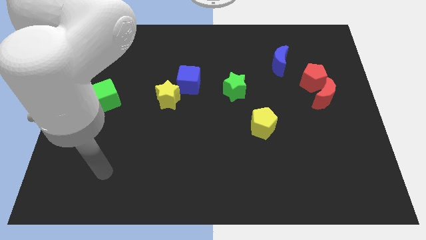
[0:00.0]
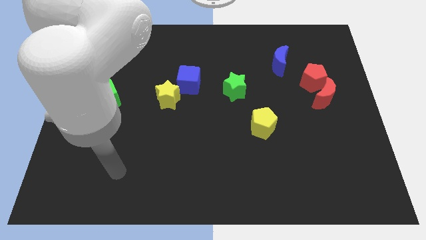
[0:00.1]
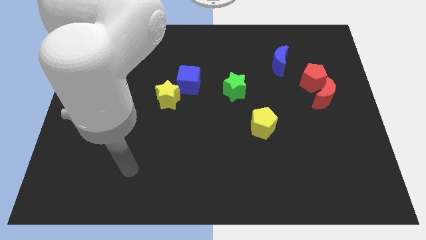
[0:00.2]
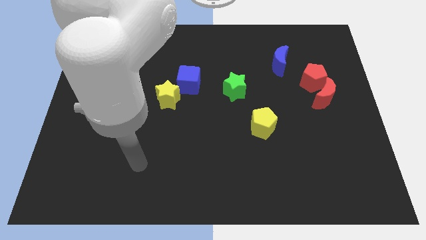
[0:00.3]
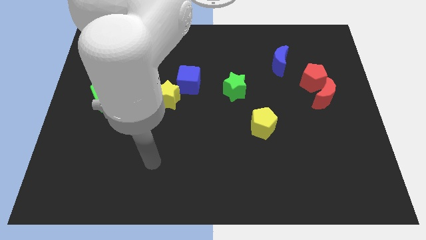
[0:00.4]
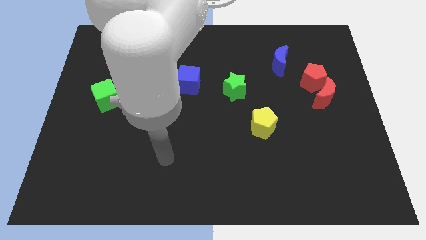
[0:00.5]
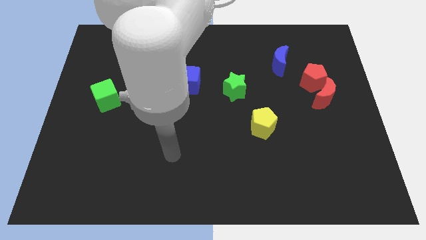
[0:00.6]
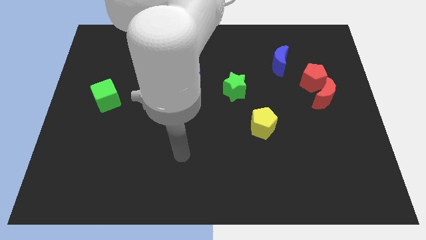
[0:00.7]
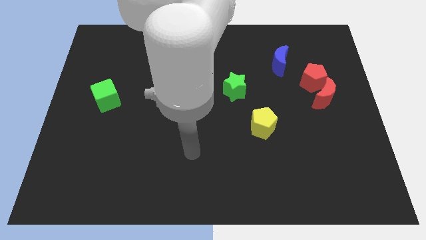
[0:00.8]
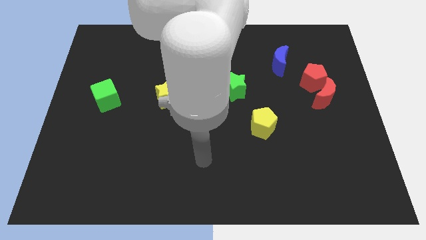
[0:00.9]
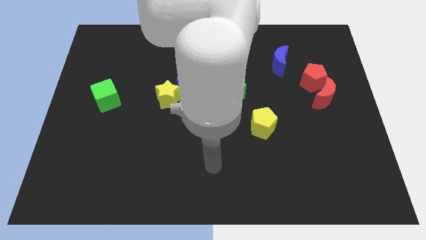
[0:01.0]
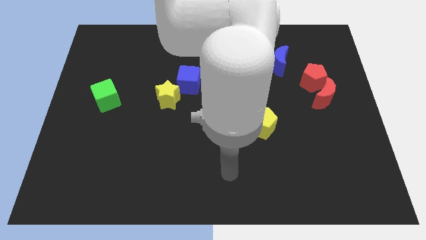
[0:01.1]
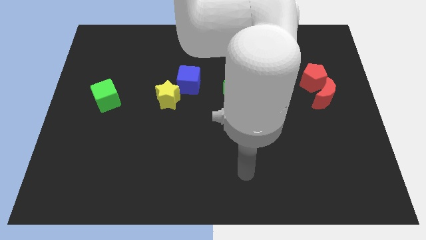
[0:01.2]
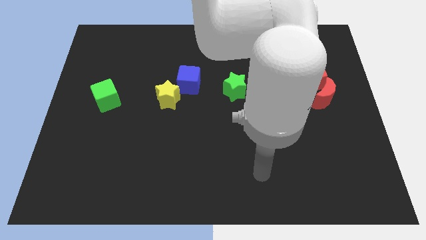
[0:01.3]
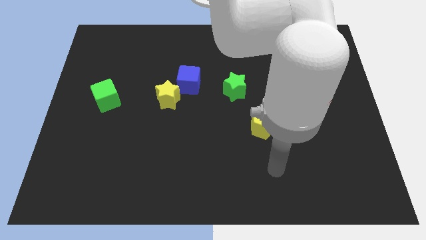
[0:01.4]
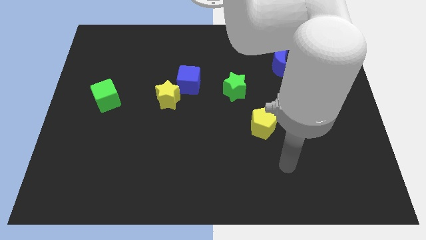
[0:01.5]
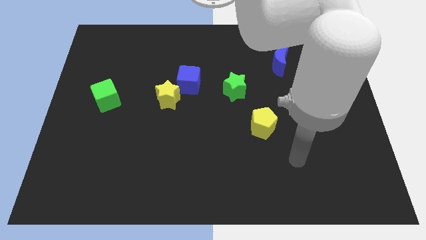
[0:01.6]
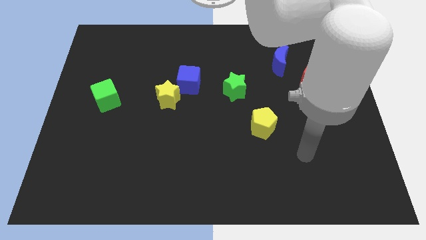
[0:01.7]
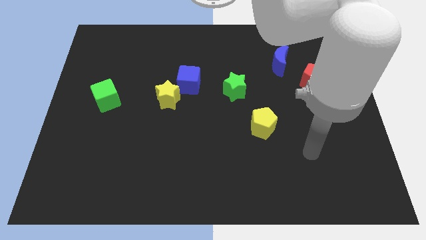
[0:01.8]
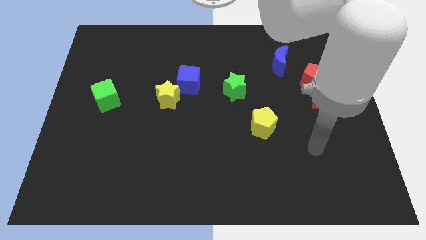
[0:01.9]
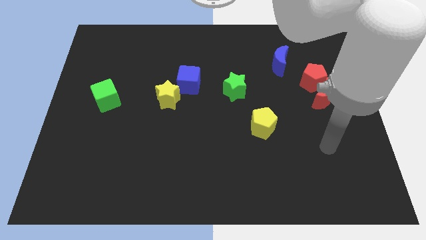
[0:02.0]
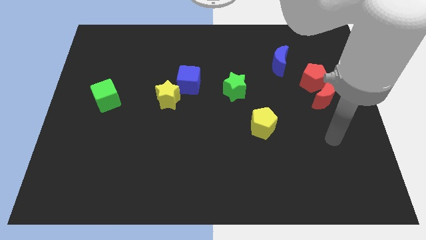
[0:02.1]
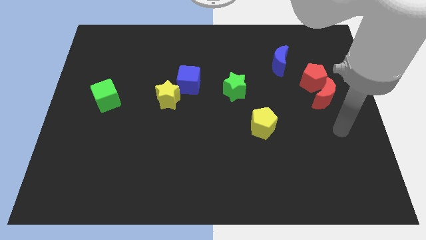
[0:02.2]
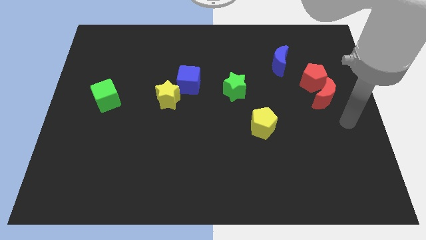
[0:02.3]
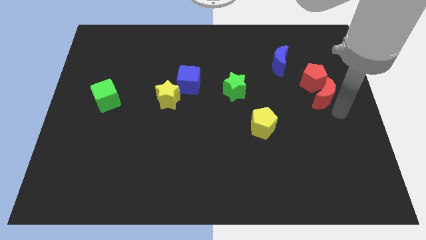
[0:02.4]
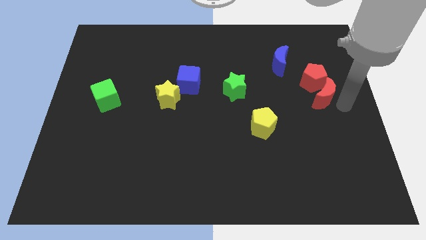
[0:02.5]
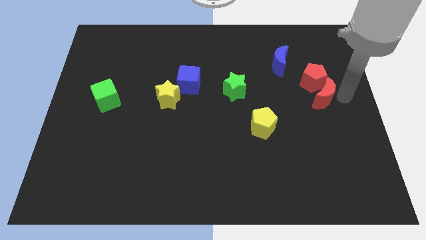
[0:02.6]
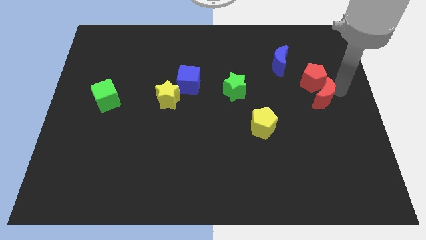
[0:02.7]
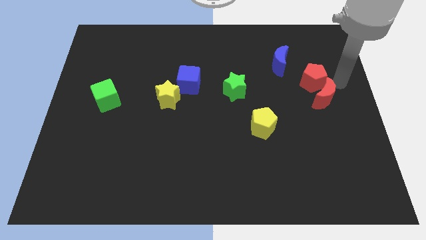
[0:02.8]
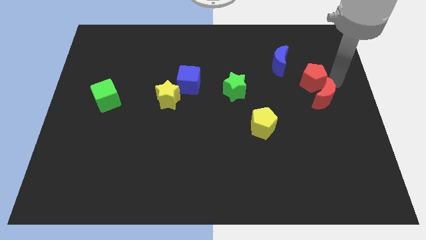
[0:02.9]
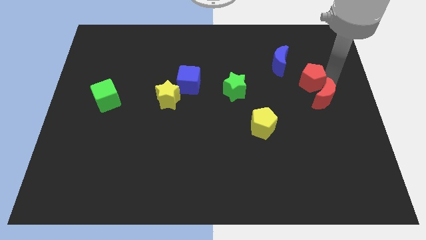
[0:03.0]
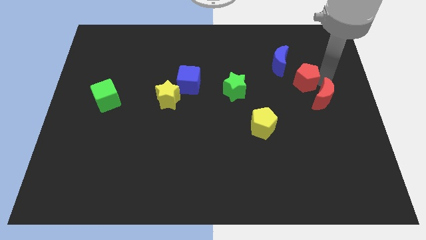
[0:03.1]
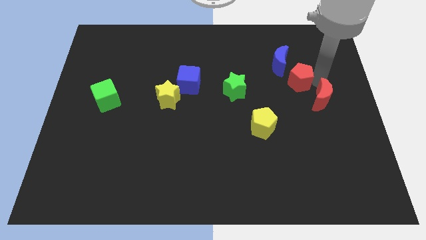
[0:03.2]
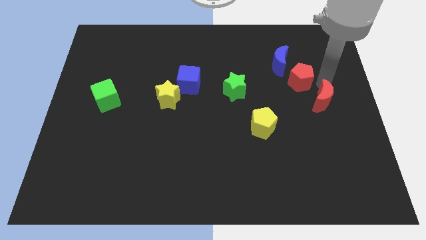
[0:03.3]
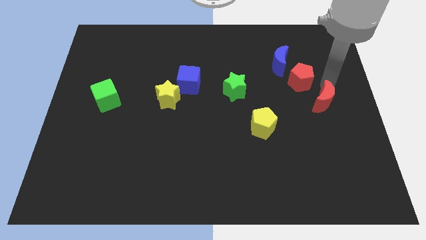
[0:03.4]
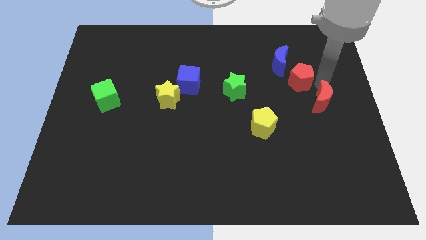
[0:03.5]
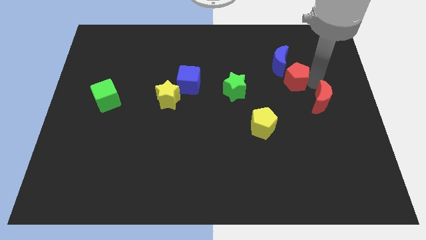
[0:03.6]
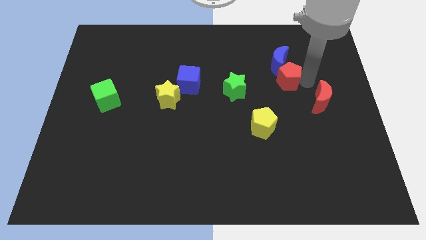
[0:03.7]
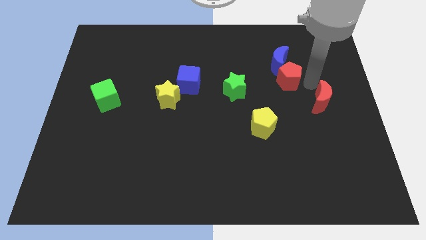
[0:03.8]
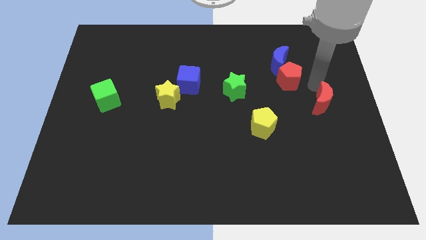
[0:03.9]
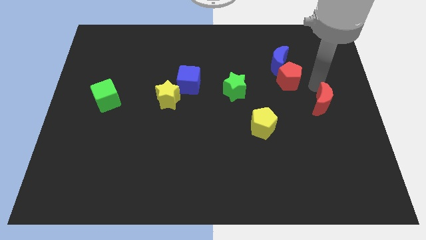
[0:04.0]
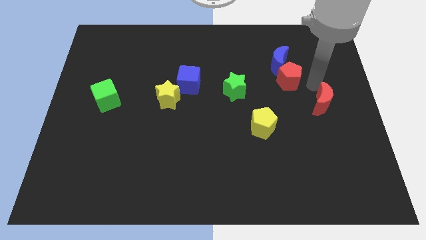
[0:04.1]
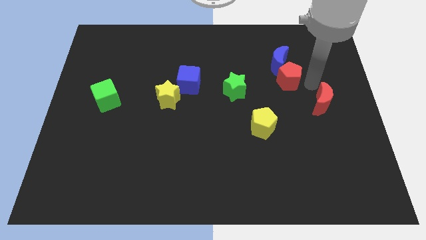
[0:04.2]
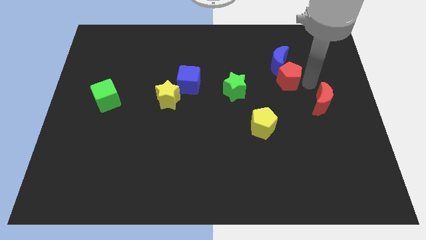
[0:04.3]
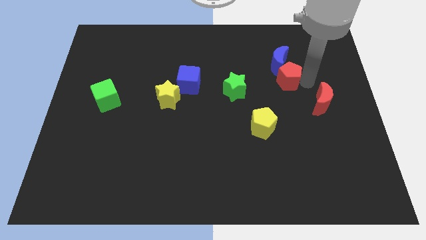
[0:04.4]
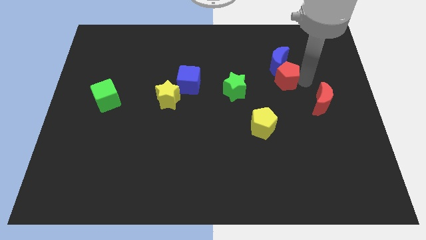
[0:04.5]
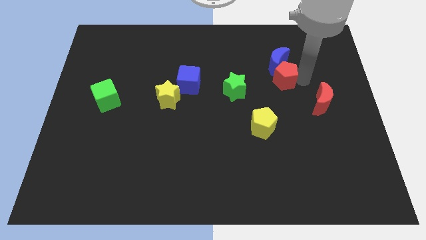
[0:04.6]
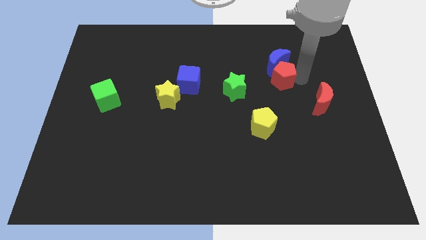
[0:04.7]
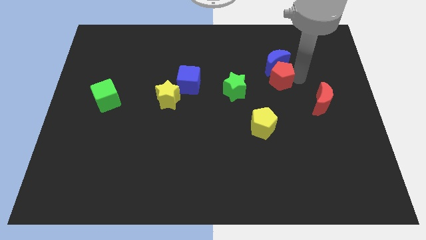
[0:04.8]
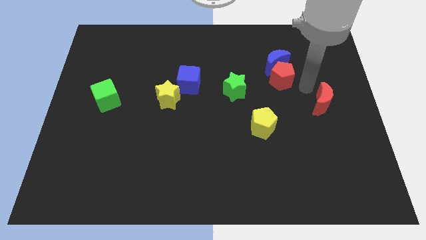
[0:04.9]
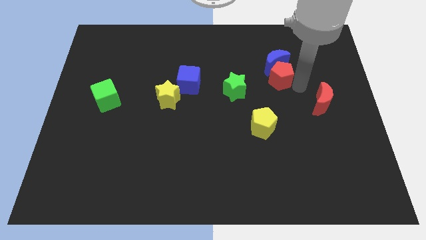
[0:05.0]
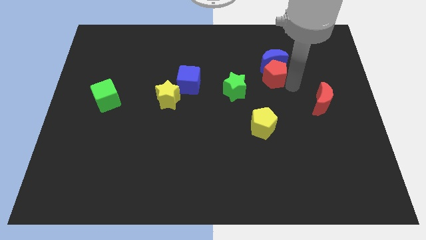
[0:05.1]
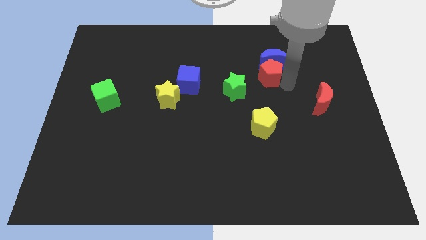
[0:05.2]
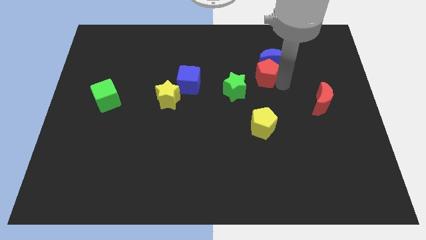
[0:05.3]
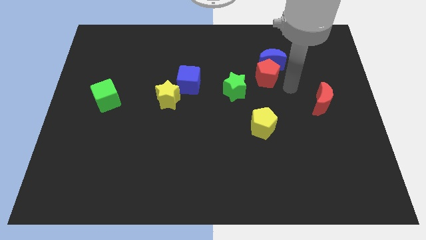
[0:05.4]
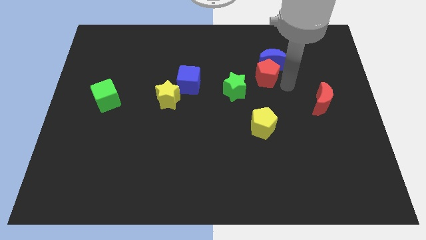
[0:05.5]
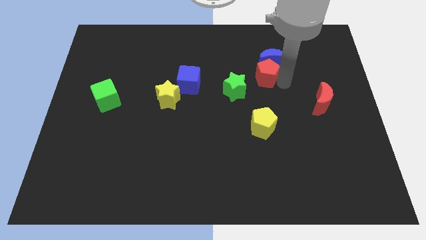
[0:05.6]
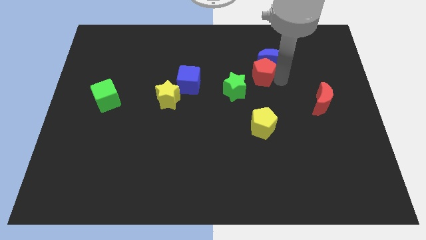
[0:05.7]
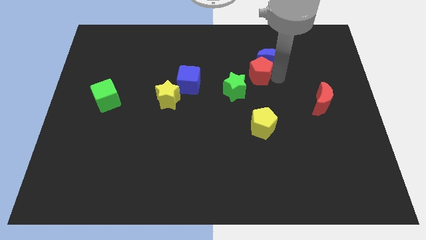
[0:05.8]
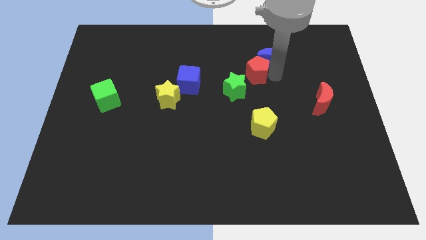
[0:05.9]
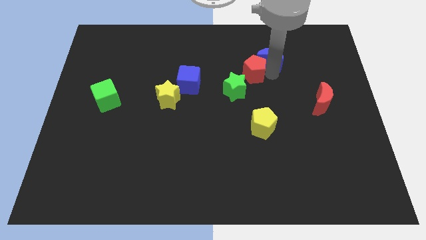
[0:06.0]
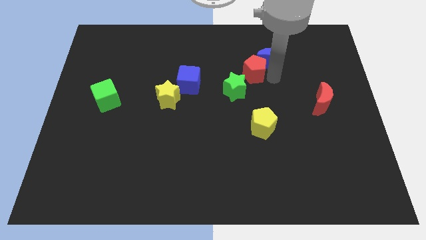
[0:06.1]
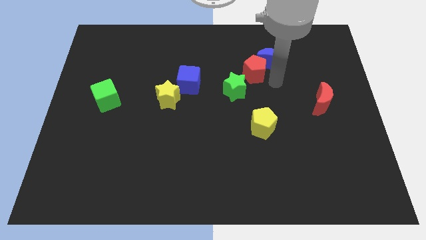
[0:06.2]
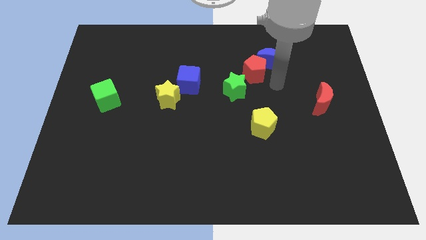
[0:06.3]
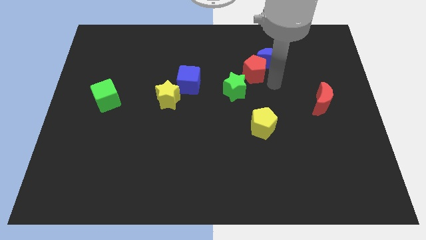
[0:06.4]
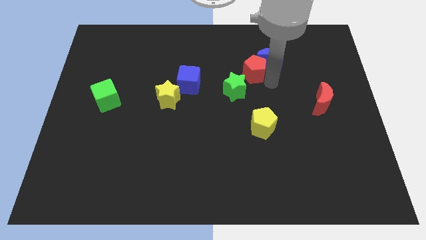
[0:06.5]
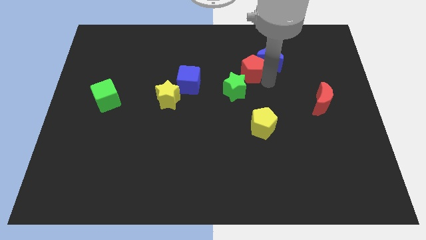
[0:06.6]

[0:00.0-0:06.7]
slide the red pentagon to the top side of the green star
